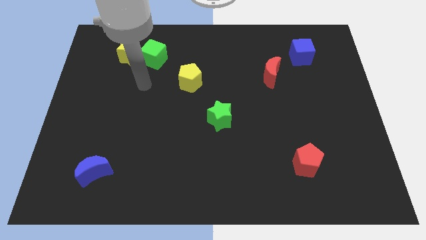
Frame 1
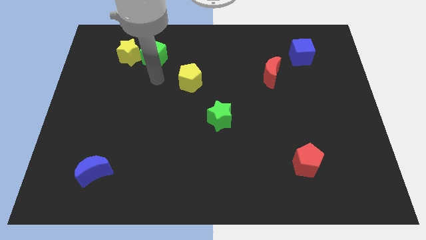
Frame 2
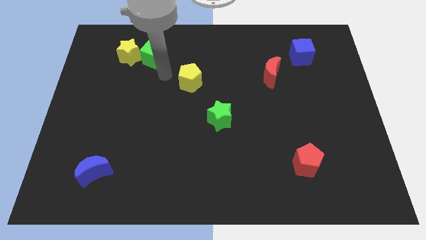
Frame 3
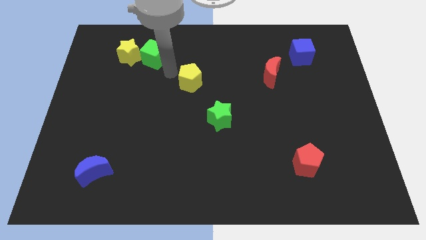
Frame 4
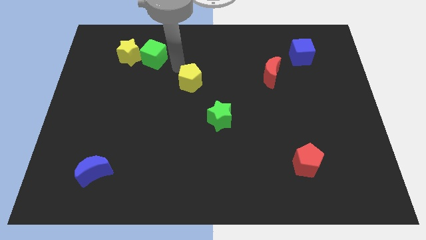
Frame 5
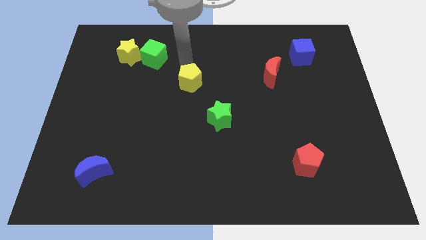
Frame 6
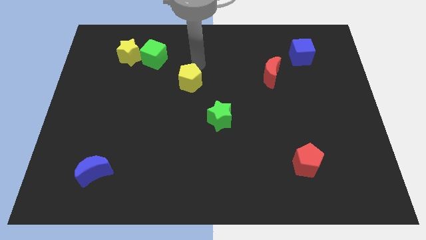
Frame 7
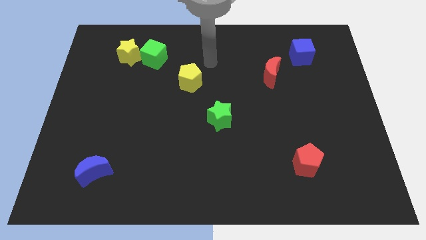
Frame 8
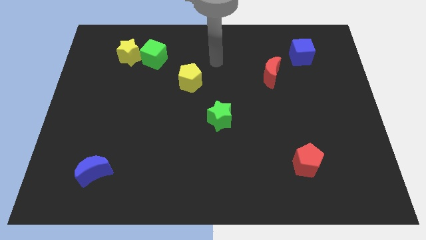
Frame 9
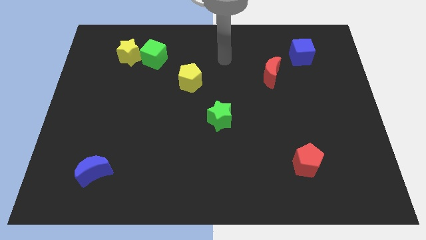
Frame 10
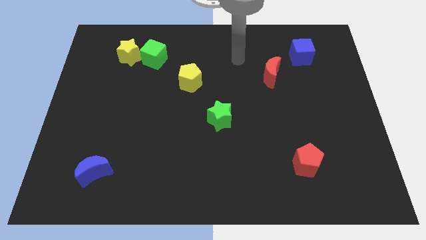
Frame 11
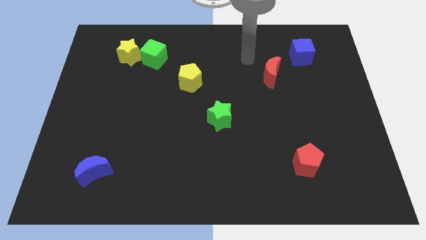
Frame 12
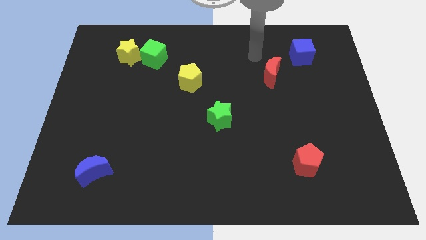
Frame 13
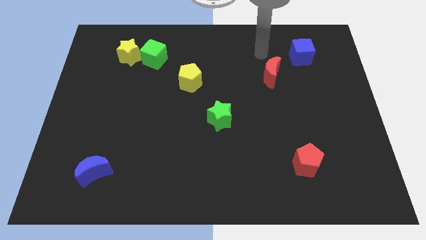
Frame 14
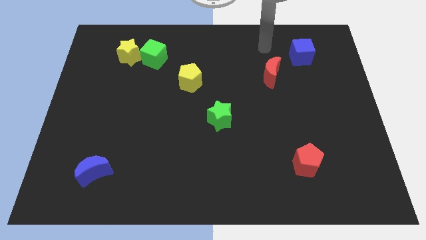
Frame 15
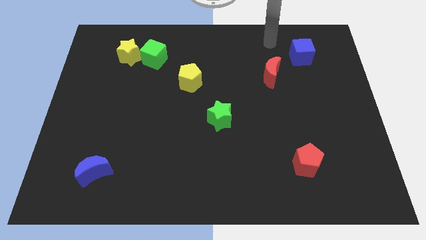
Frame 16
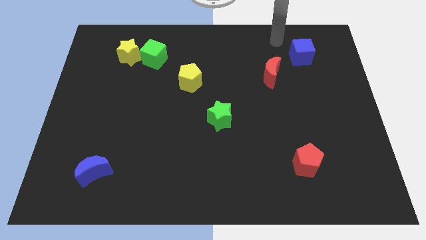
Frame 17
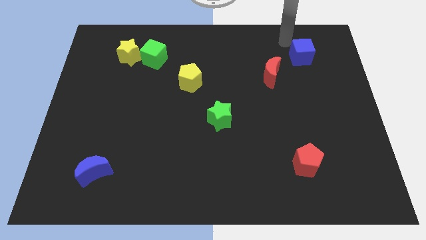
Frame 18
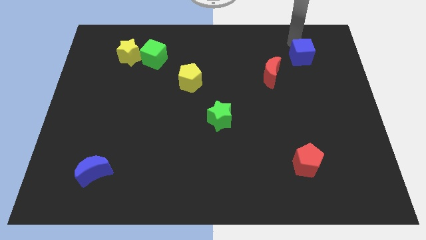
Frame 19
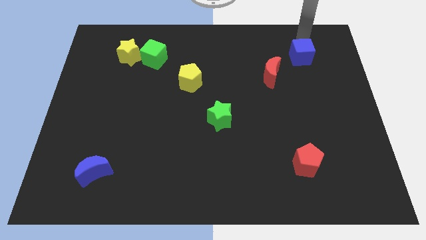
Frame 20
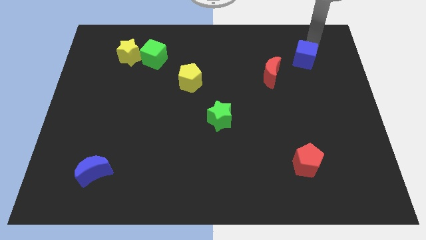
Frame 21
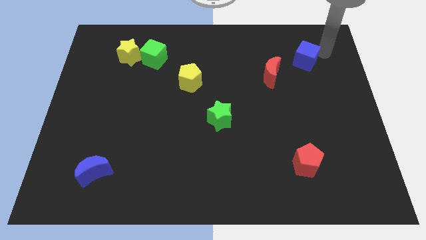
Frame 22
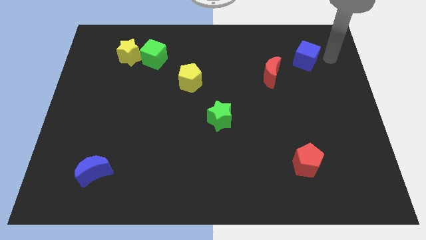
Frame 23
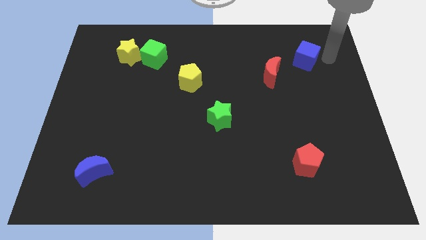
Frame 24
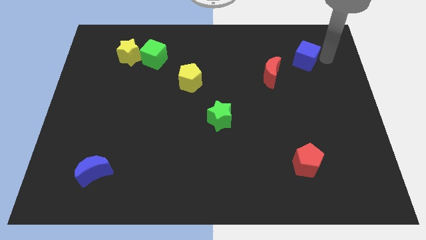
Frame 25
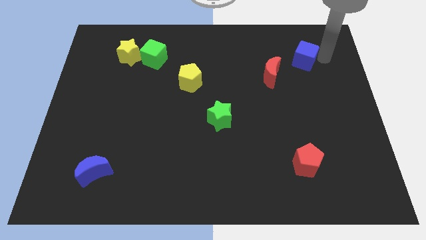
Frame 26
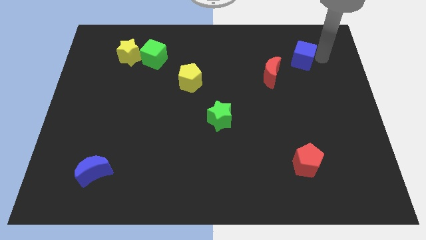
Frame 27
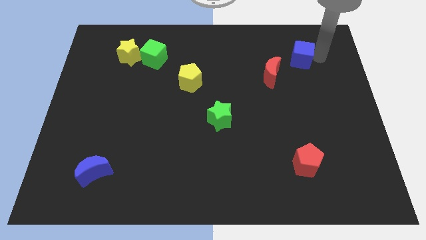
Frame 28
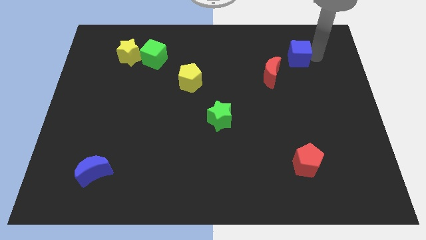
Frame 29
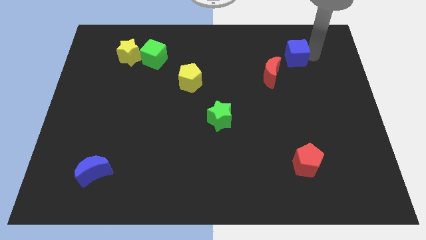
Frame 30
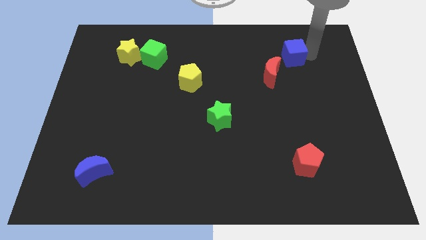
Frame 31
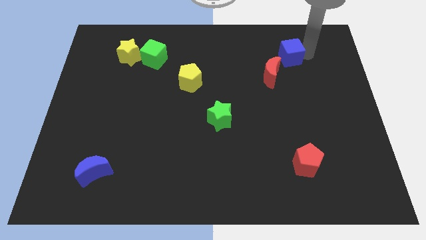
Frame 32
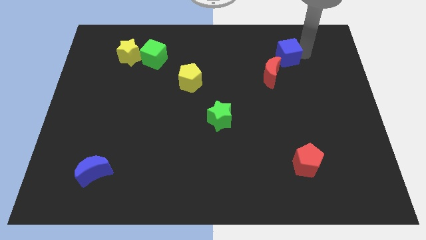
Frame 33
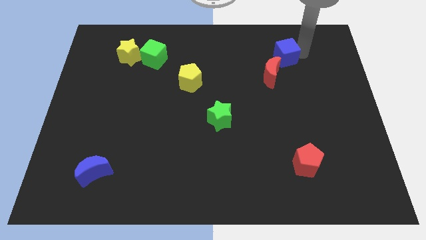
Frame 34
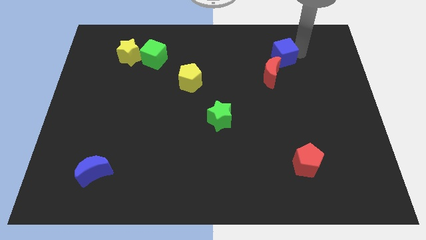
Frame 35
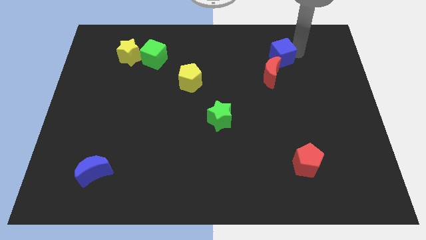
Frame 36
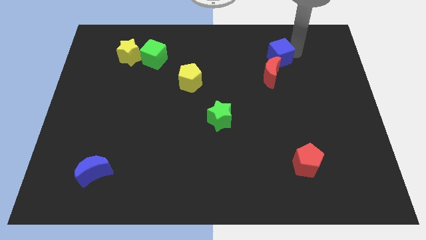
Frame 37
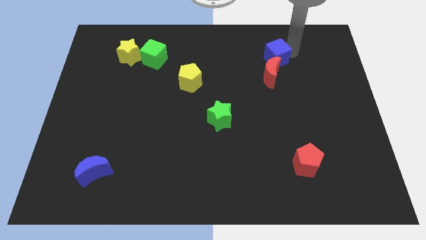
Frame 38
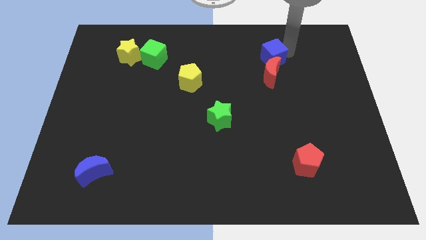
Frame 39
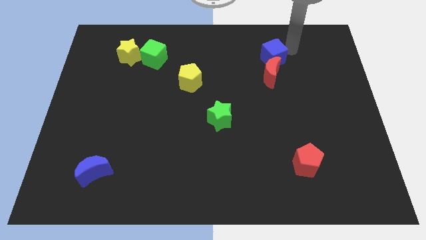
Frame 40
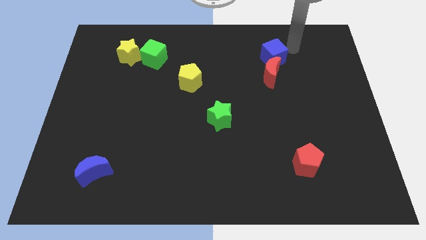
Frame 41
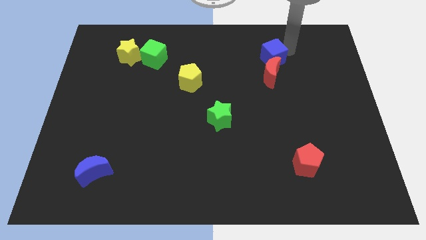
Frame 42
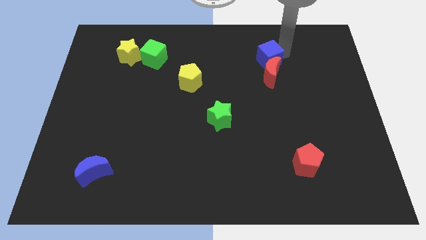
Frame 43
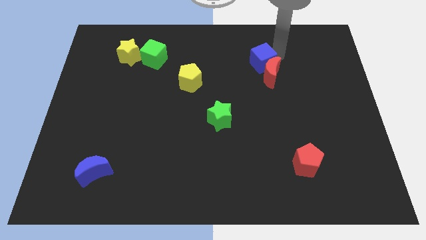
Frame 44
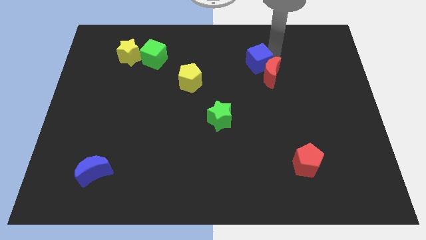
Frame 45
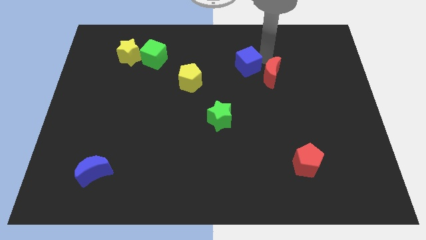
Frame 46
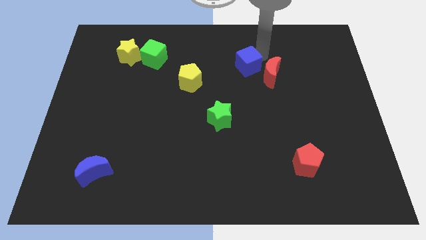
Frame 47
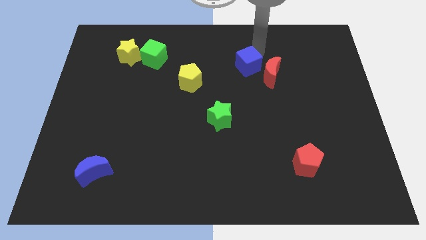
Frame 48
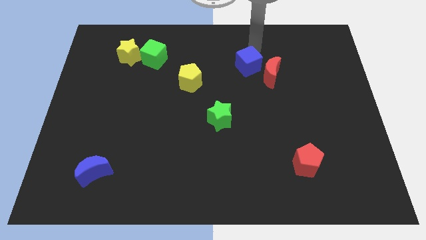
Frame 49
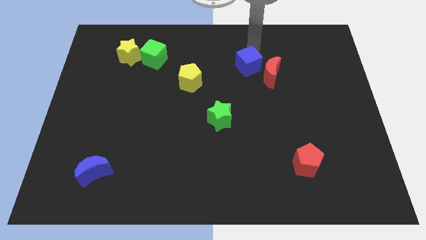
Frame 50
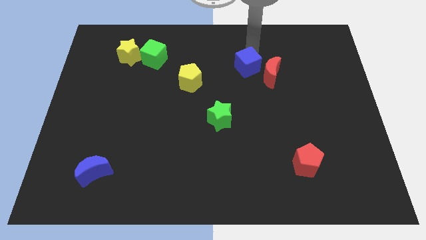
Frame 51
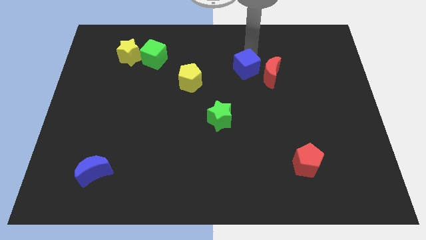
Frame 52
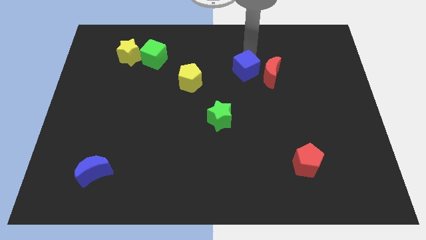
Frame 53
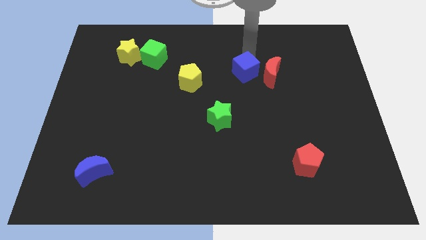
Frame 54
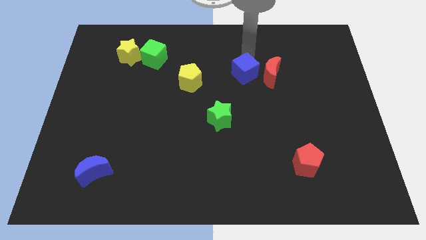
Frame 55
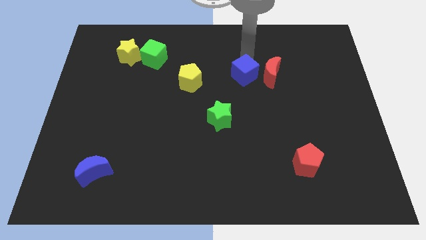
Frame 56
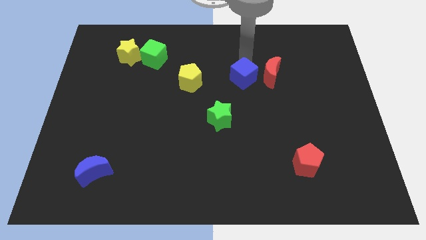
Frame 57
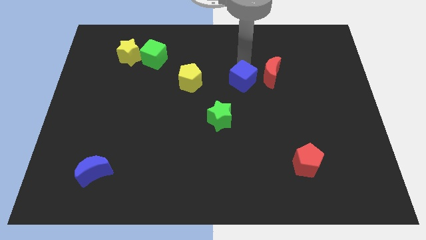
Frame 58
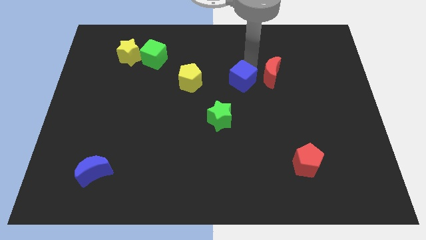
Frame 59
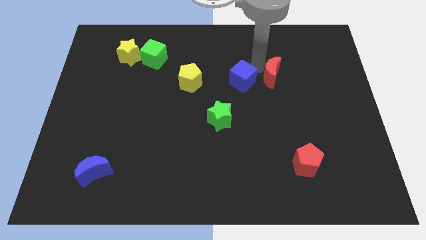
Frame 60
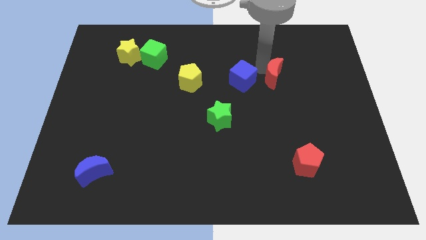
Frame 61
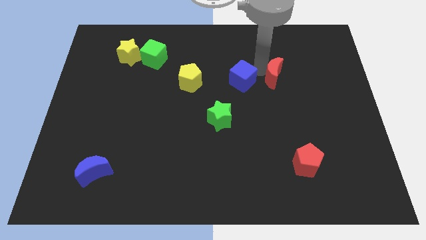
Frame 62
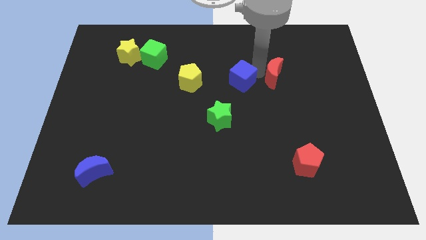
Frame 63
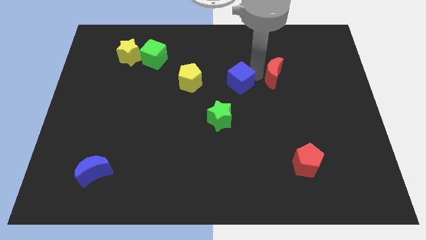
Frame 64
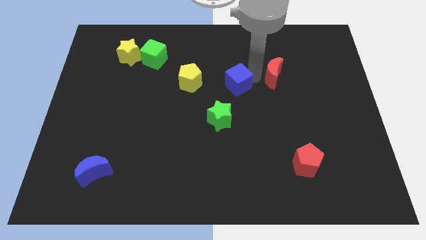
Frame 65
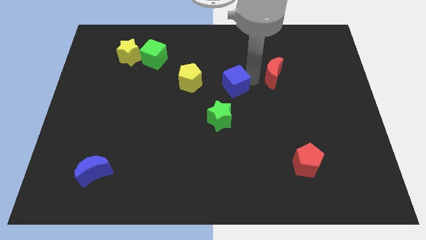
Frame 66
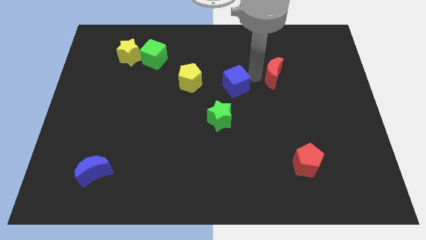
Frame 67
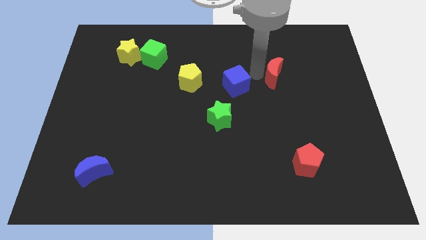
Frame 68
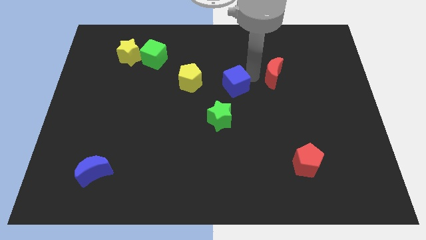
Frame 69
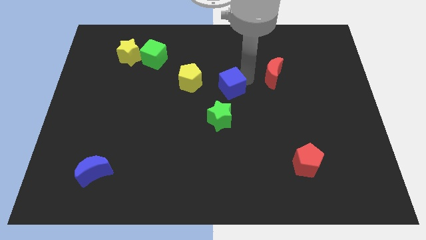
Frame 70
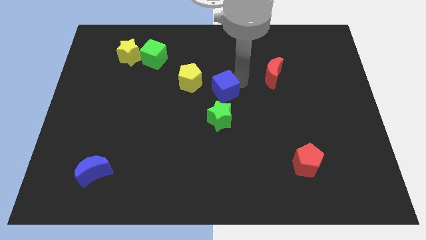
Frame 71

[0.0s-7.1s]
push the blue cube diagonally down and to the right of the yellow pentagon
